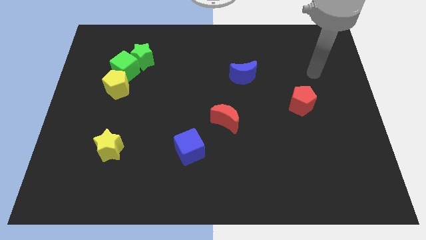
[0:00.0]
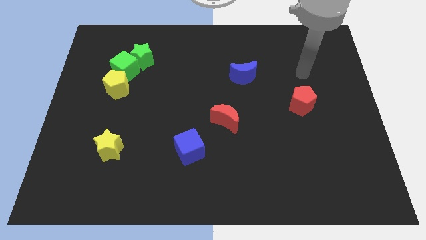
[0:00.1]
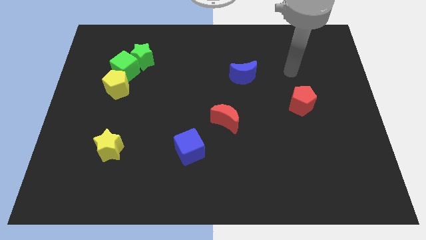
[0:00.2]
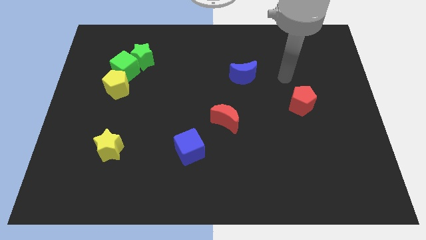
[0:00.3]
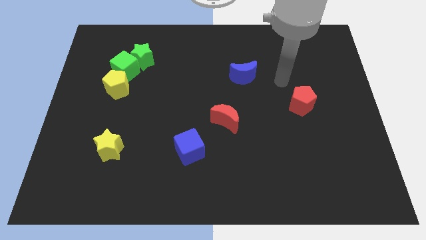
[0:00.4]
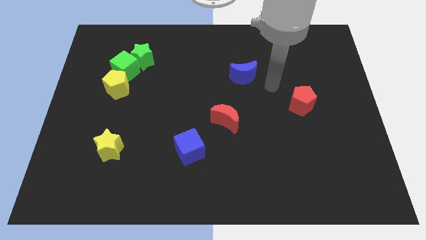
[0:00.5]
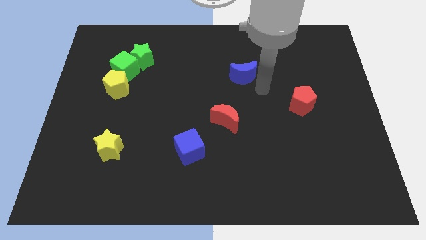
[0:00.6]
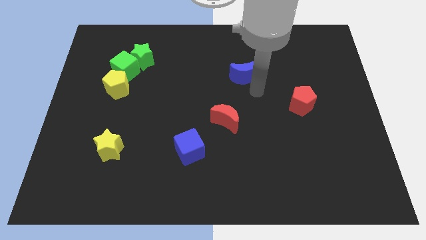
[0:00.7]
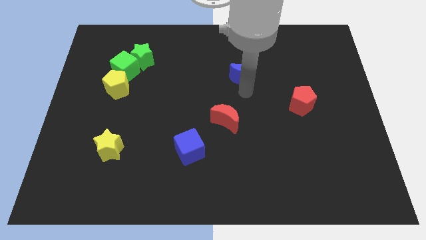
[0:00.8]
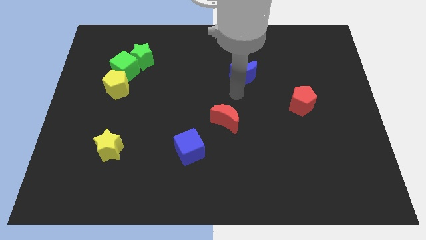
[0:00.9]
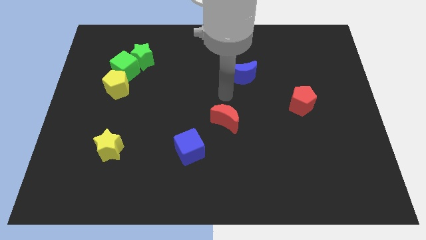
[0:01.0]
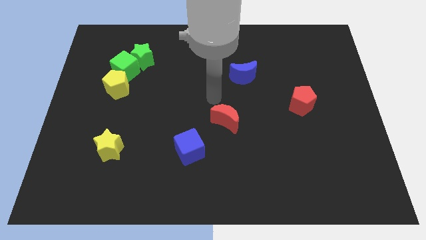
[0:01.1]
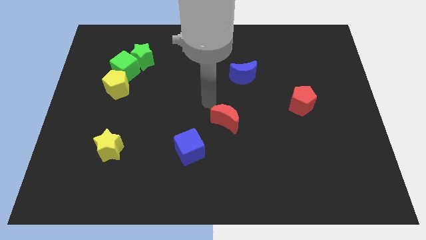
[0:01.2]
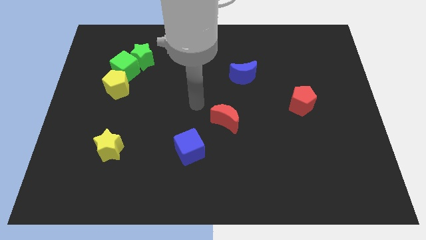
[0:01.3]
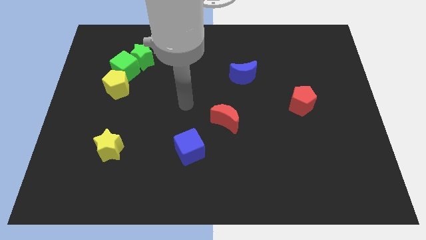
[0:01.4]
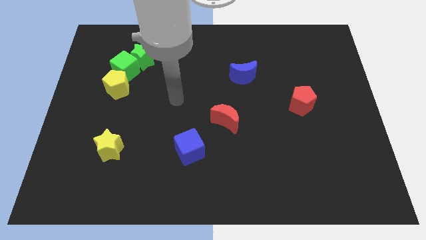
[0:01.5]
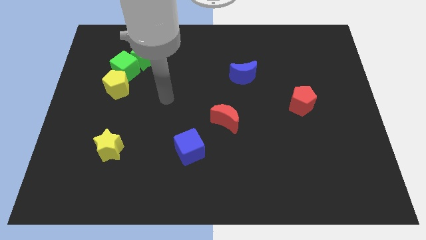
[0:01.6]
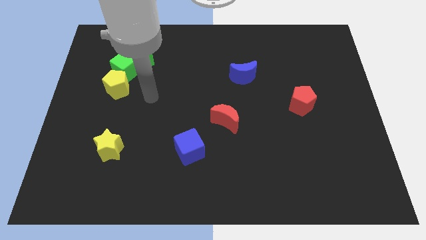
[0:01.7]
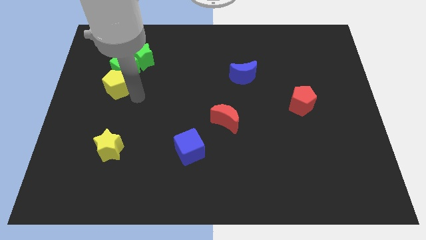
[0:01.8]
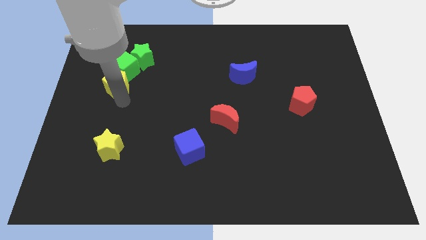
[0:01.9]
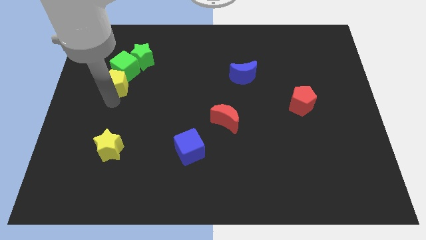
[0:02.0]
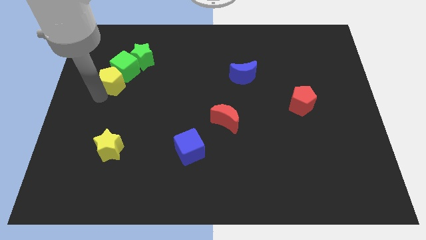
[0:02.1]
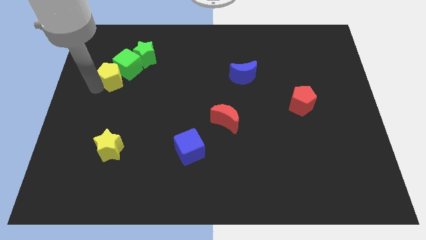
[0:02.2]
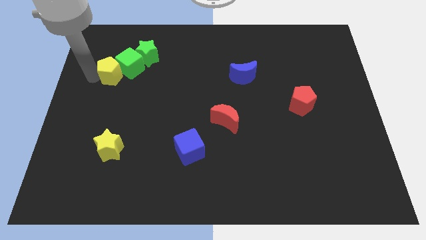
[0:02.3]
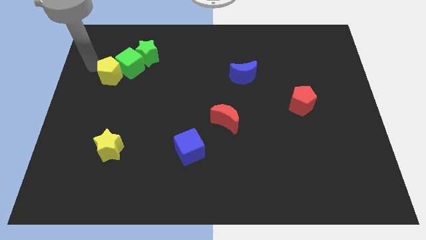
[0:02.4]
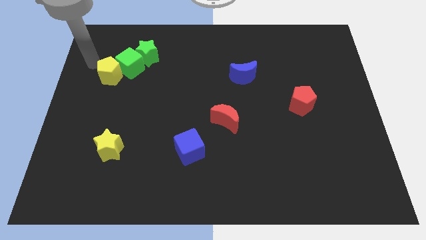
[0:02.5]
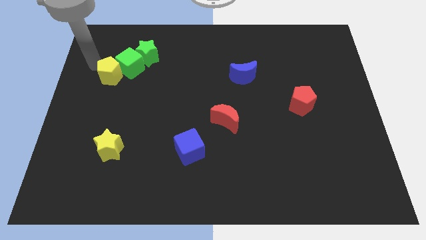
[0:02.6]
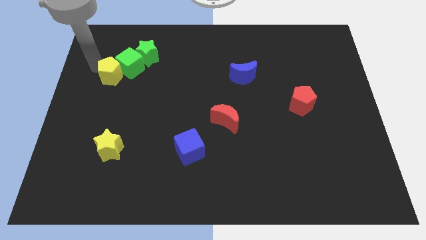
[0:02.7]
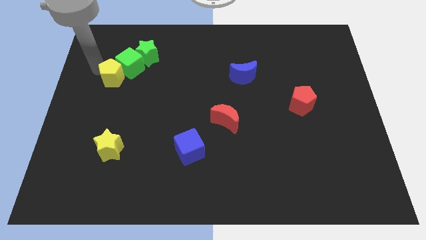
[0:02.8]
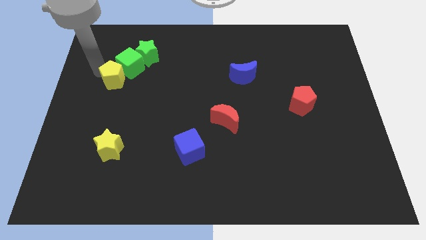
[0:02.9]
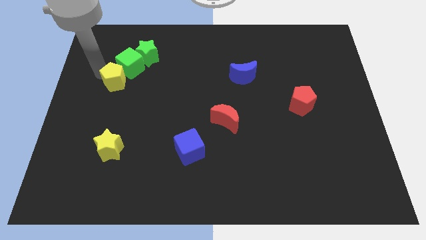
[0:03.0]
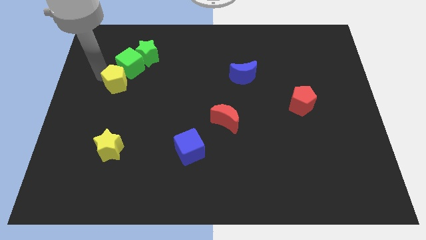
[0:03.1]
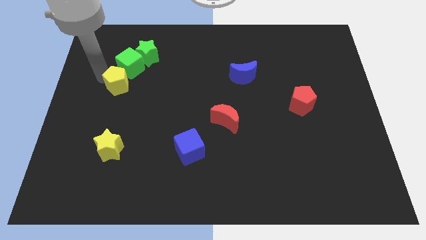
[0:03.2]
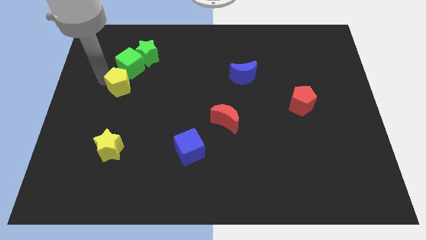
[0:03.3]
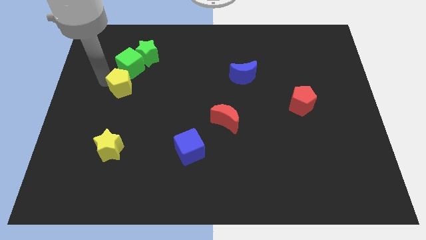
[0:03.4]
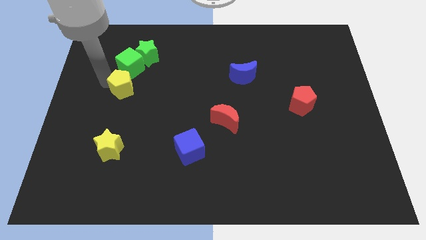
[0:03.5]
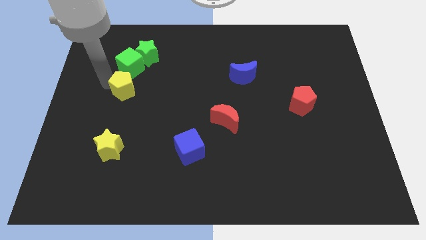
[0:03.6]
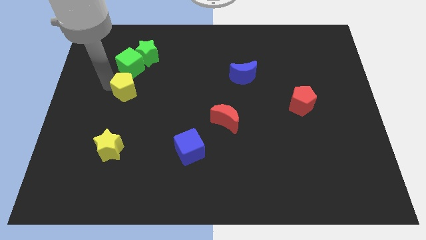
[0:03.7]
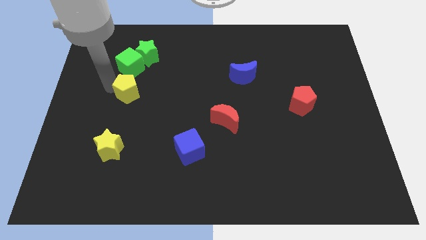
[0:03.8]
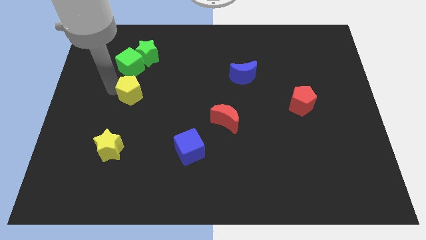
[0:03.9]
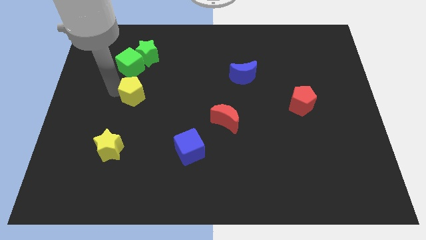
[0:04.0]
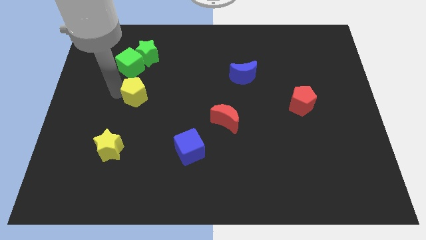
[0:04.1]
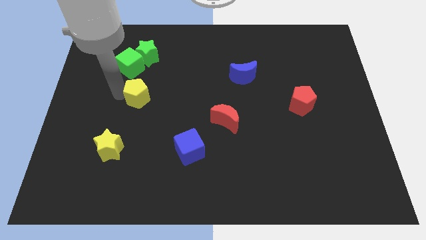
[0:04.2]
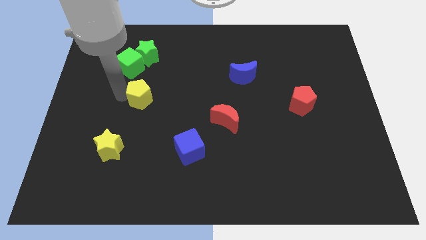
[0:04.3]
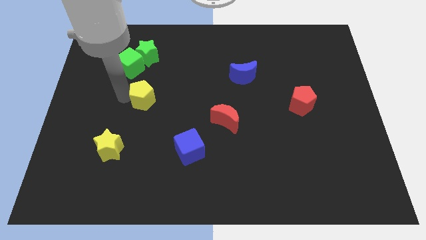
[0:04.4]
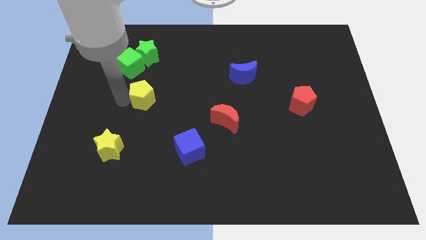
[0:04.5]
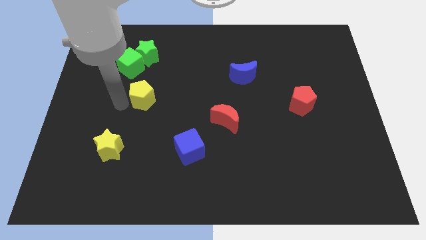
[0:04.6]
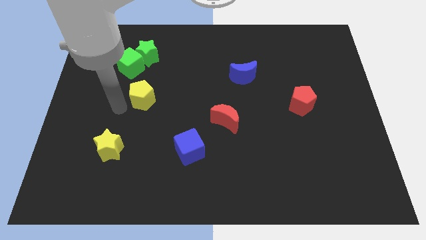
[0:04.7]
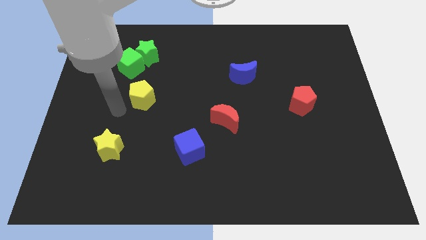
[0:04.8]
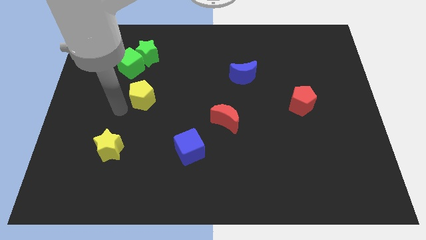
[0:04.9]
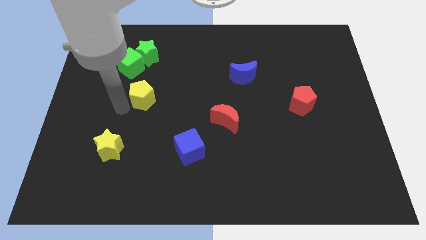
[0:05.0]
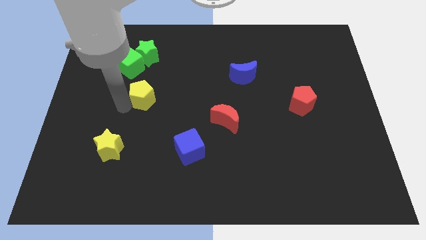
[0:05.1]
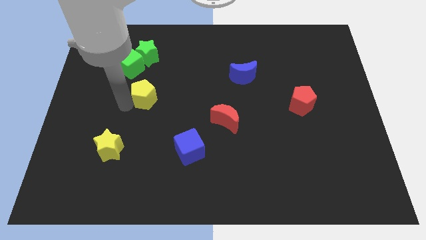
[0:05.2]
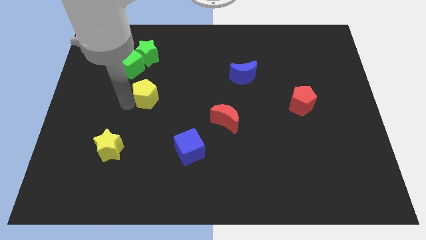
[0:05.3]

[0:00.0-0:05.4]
move the yellow pentagon right a little bit

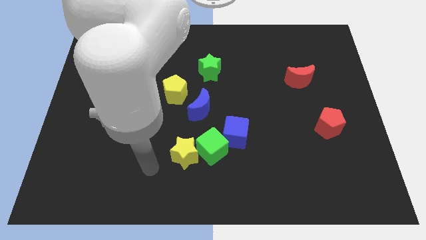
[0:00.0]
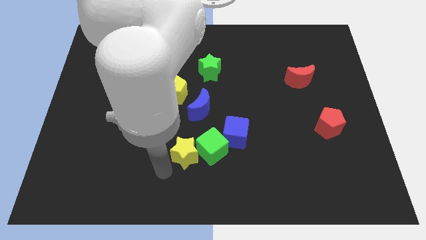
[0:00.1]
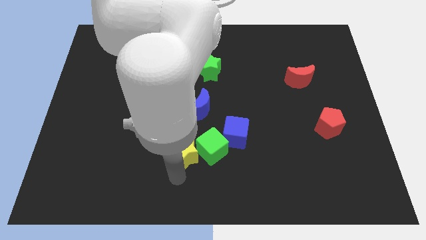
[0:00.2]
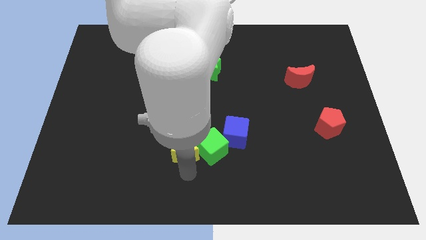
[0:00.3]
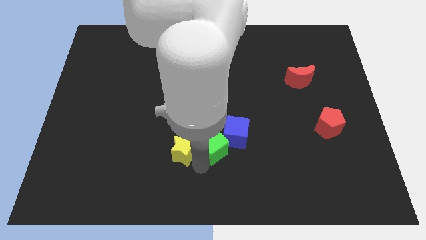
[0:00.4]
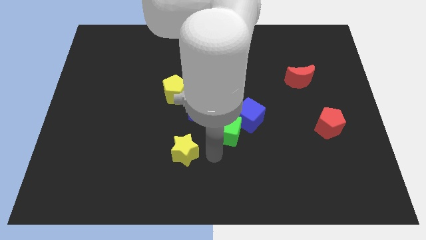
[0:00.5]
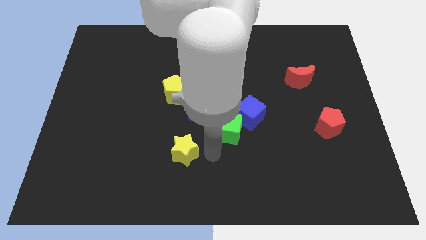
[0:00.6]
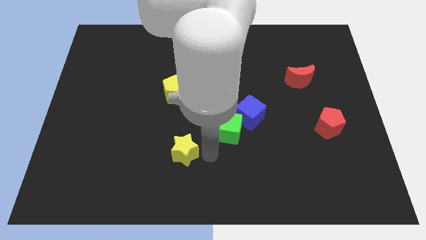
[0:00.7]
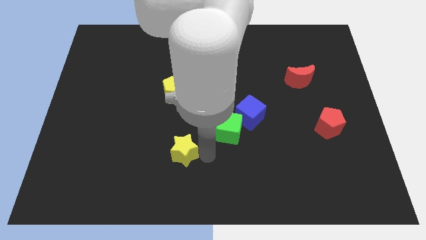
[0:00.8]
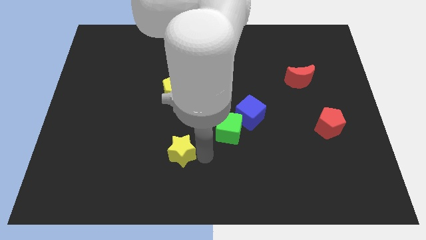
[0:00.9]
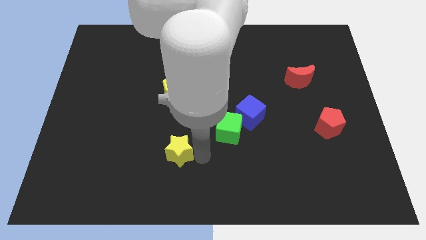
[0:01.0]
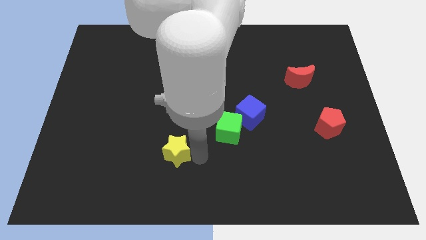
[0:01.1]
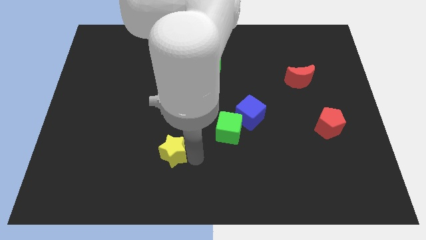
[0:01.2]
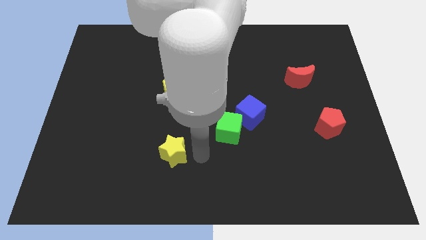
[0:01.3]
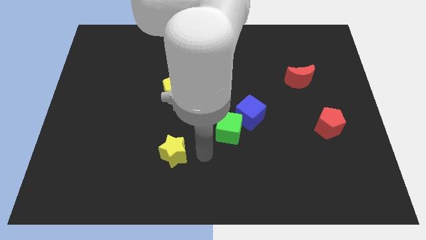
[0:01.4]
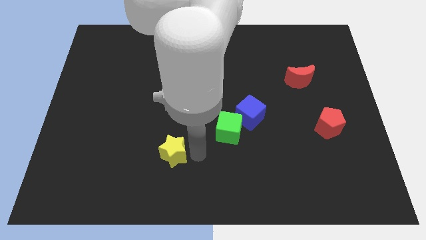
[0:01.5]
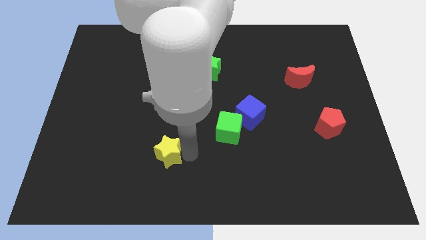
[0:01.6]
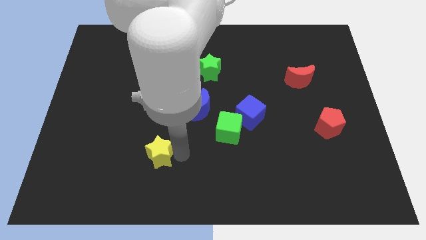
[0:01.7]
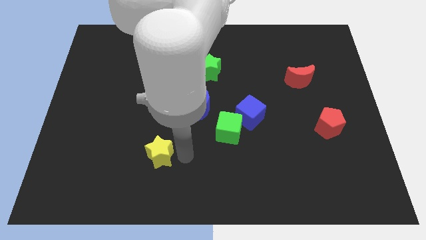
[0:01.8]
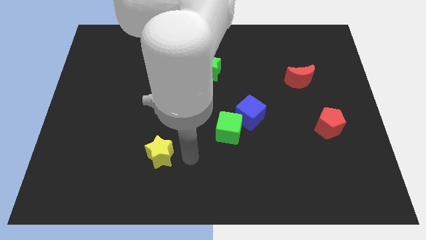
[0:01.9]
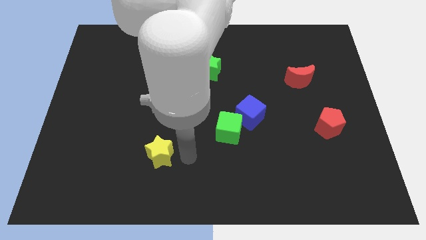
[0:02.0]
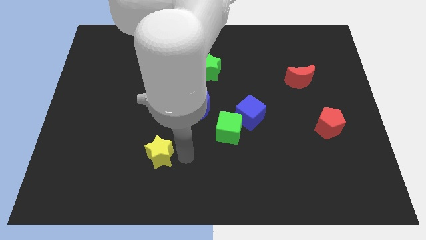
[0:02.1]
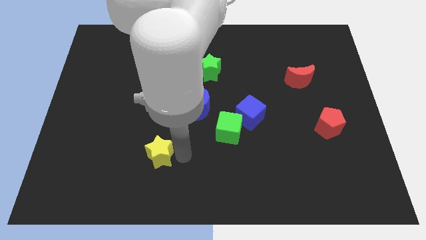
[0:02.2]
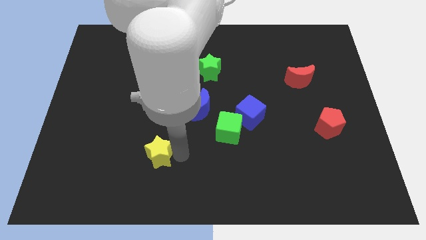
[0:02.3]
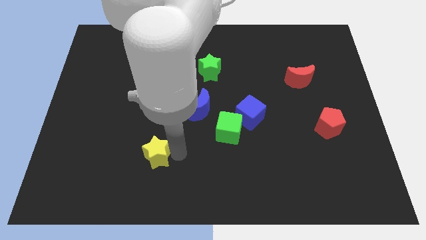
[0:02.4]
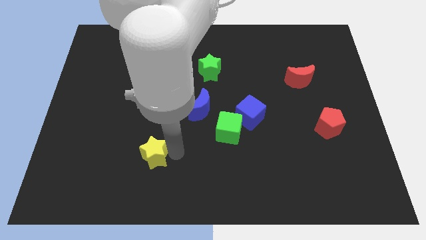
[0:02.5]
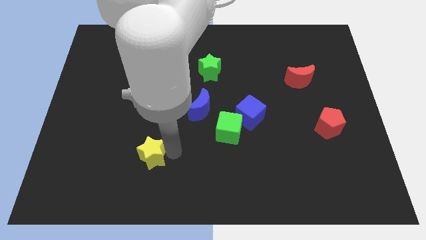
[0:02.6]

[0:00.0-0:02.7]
push the yellow star a little bit to the left
